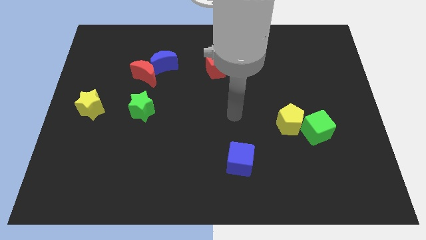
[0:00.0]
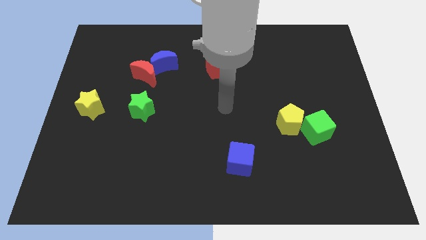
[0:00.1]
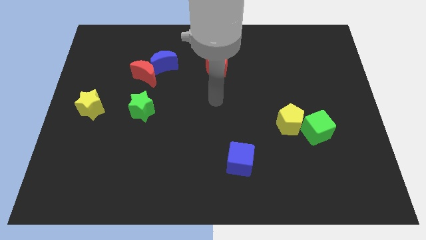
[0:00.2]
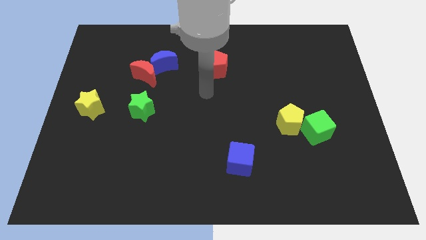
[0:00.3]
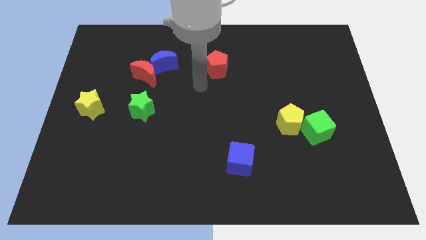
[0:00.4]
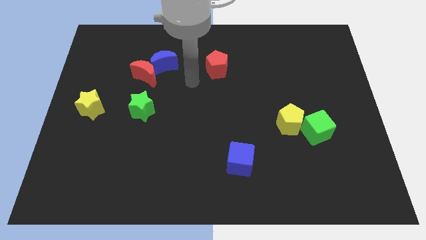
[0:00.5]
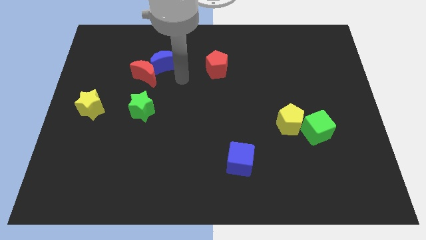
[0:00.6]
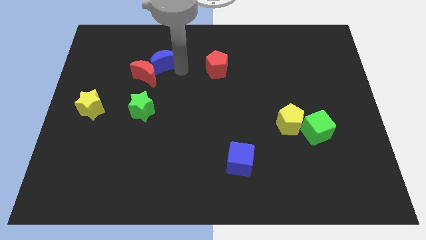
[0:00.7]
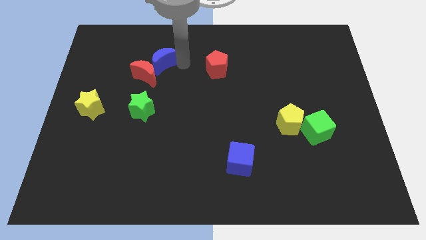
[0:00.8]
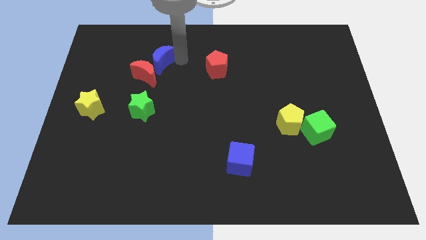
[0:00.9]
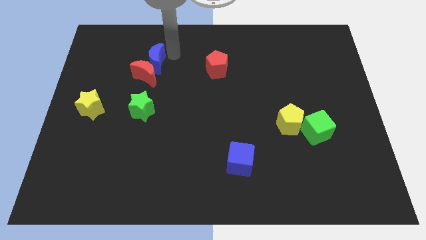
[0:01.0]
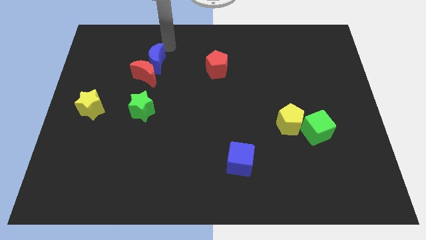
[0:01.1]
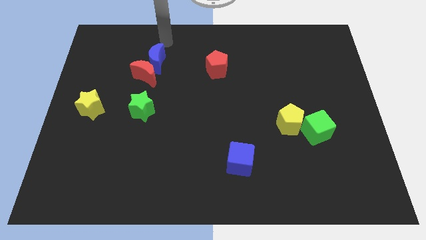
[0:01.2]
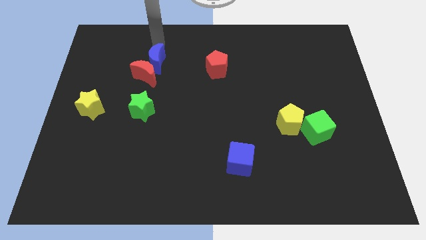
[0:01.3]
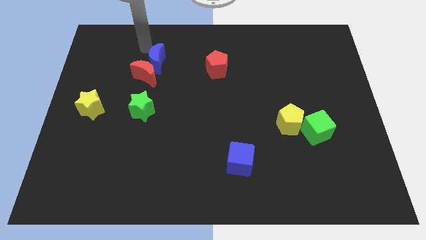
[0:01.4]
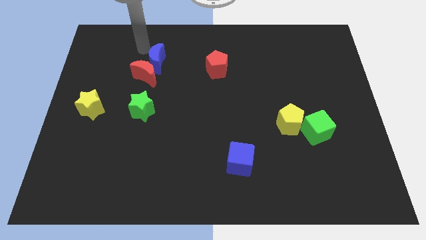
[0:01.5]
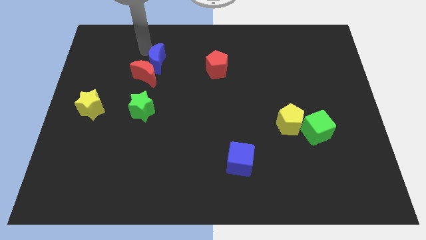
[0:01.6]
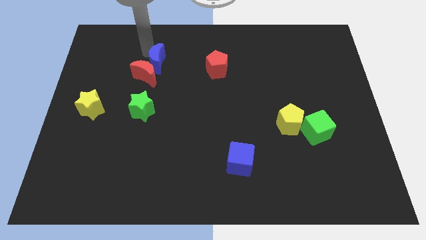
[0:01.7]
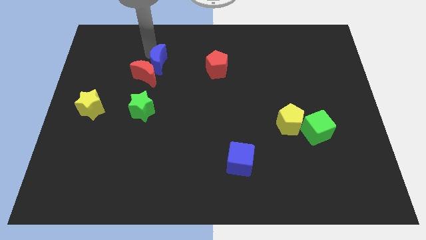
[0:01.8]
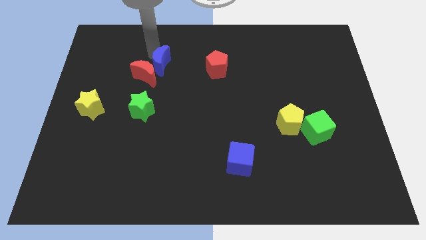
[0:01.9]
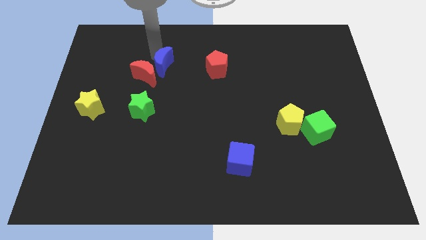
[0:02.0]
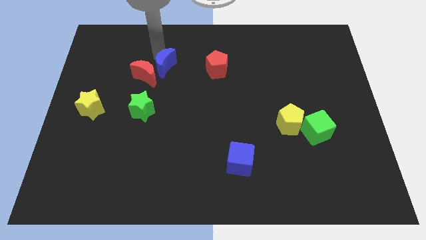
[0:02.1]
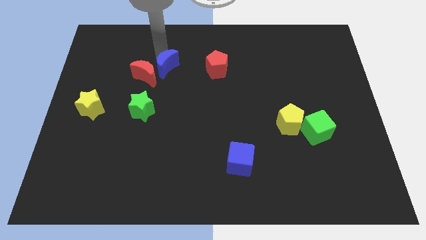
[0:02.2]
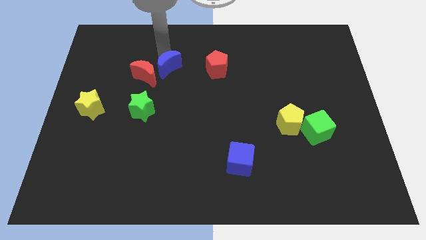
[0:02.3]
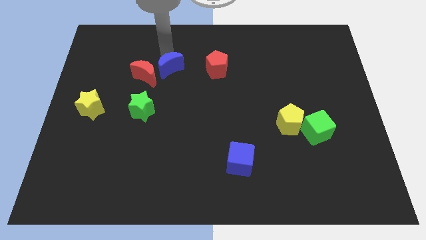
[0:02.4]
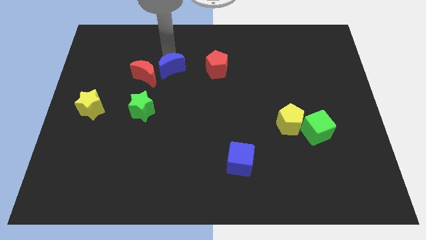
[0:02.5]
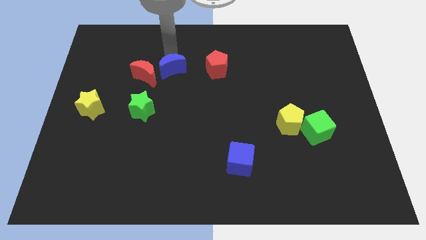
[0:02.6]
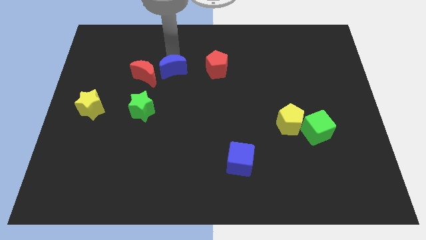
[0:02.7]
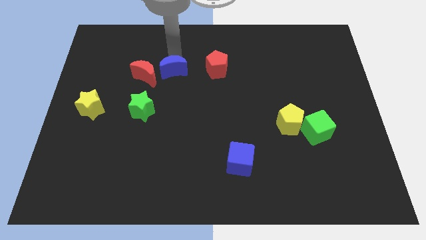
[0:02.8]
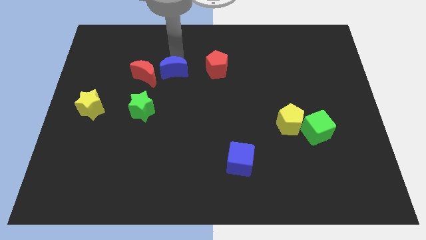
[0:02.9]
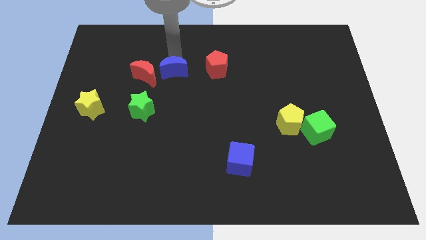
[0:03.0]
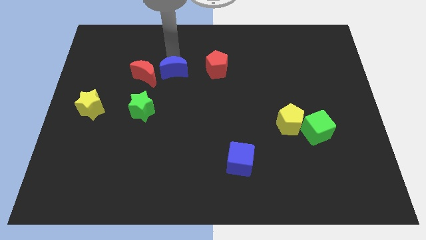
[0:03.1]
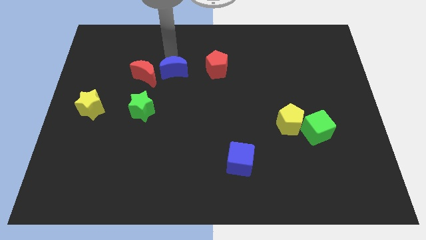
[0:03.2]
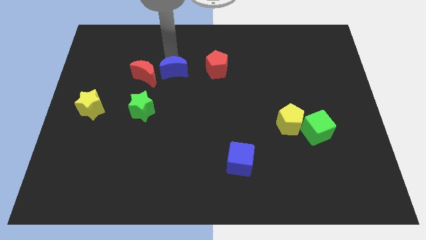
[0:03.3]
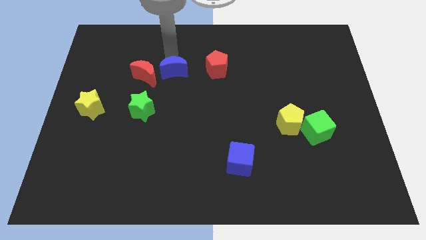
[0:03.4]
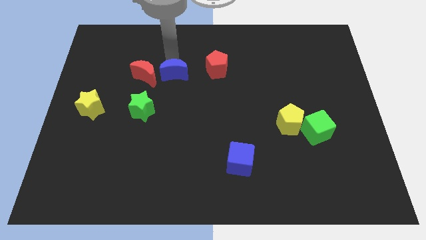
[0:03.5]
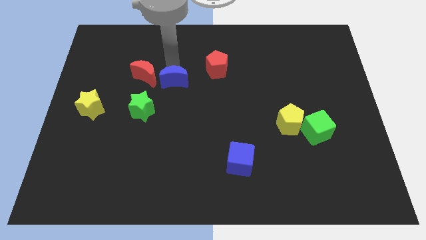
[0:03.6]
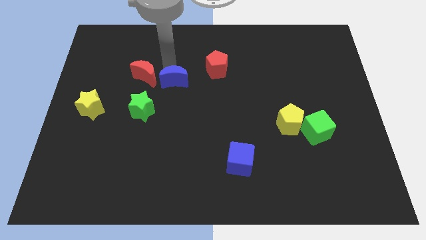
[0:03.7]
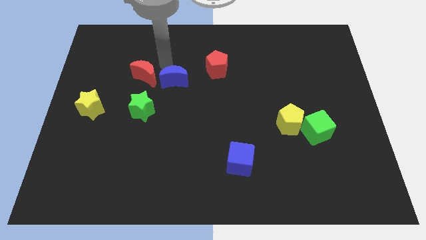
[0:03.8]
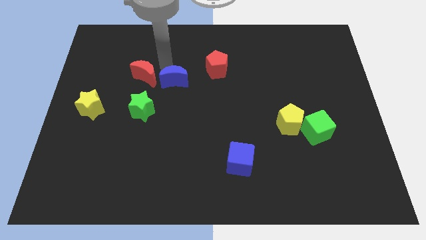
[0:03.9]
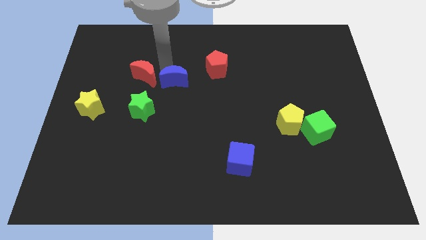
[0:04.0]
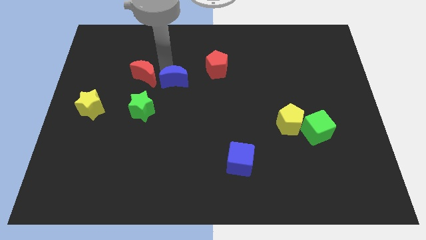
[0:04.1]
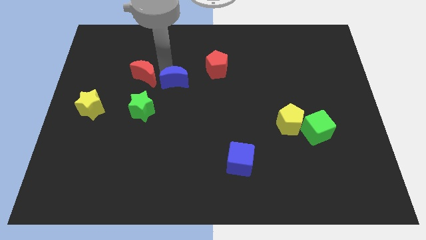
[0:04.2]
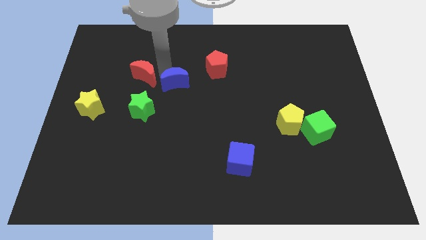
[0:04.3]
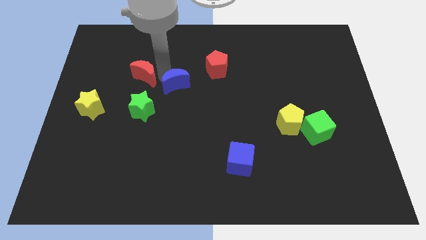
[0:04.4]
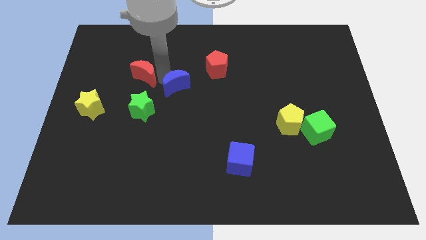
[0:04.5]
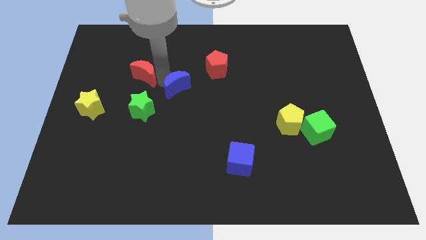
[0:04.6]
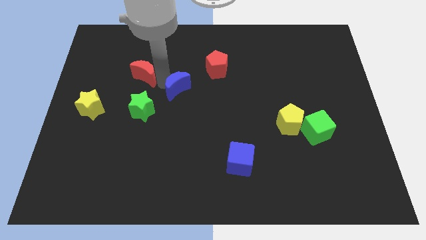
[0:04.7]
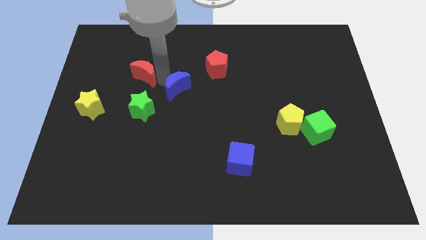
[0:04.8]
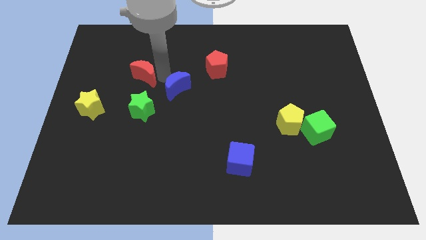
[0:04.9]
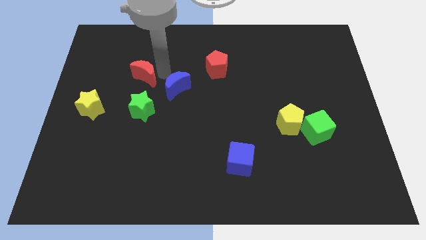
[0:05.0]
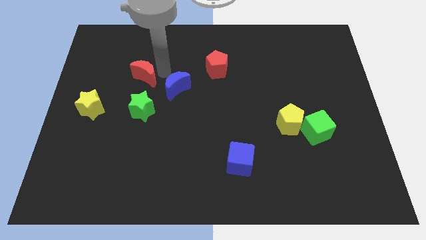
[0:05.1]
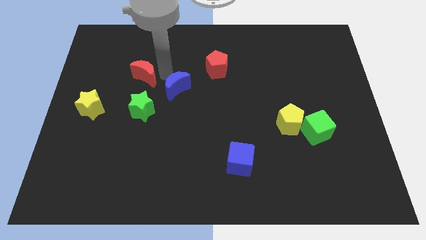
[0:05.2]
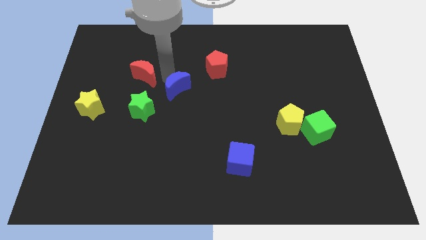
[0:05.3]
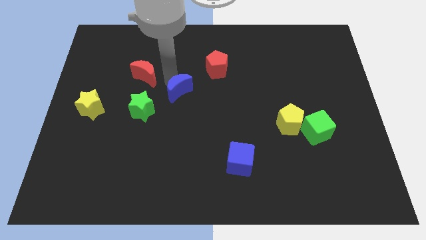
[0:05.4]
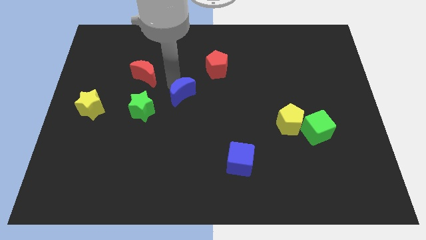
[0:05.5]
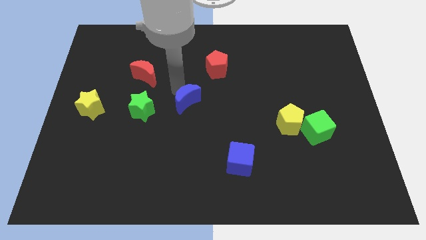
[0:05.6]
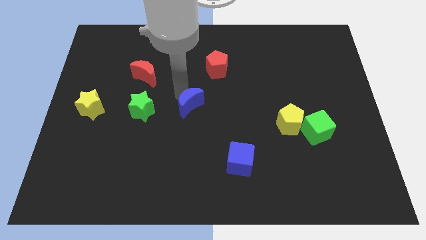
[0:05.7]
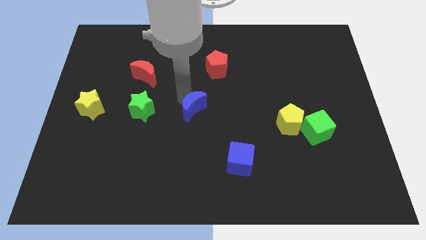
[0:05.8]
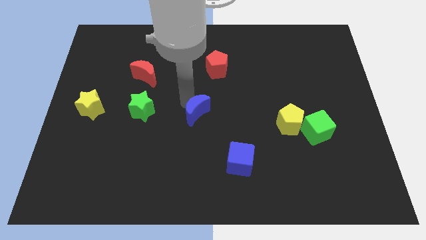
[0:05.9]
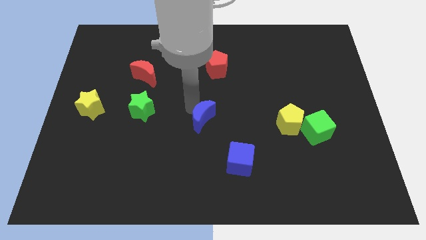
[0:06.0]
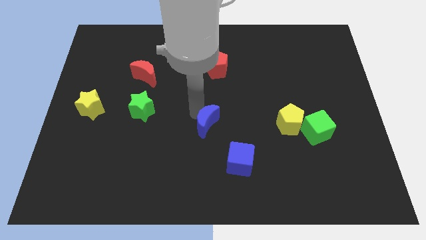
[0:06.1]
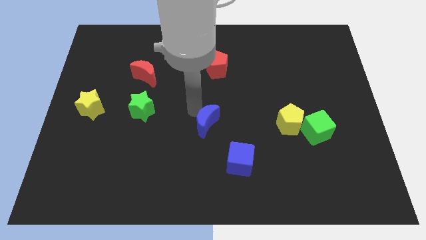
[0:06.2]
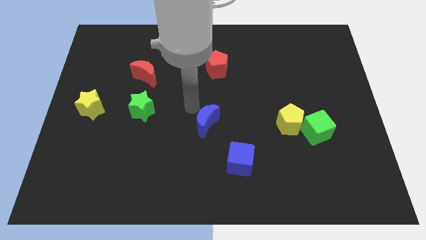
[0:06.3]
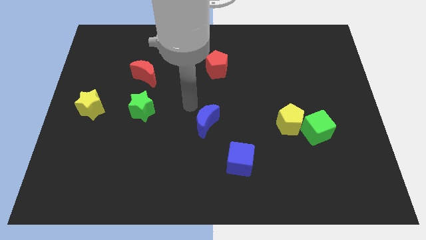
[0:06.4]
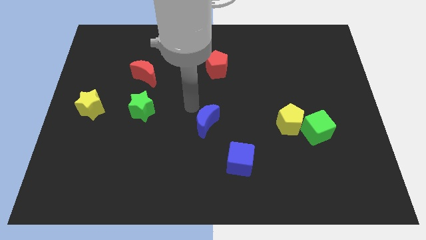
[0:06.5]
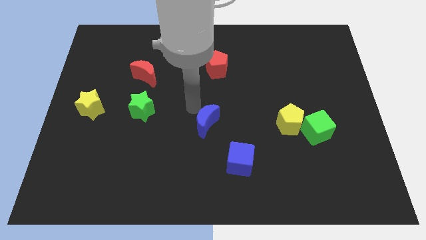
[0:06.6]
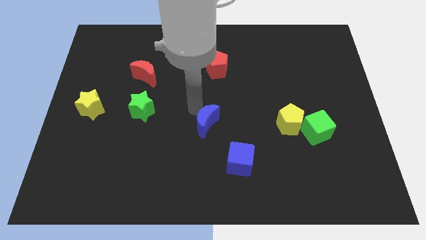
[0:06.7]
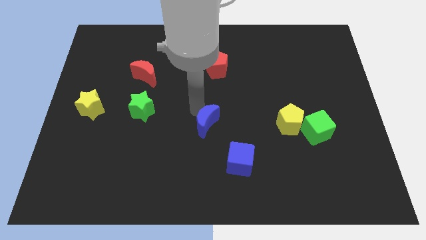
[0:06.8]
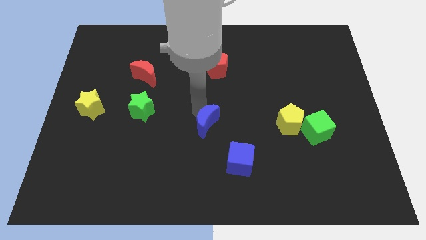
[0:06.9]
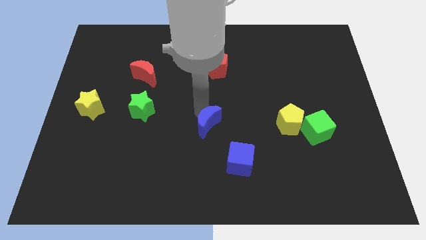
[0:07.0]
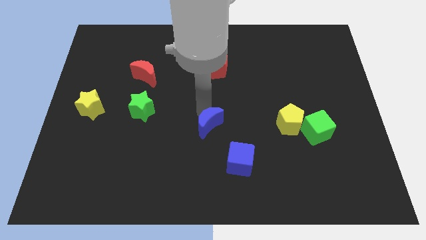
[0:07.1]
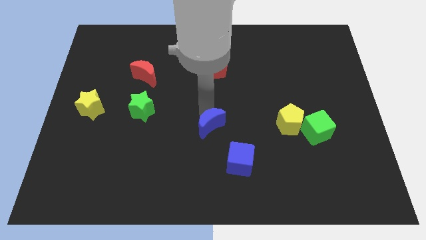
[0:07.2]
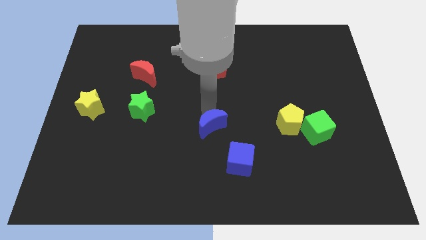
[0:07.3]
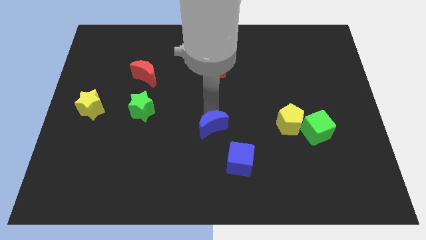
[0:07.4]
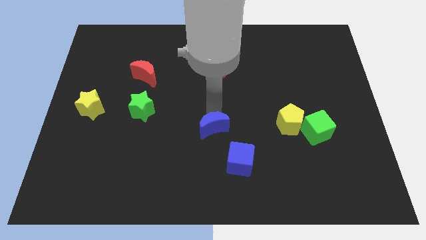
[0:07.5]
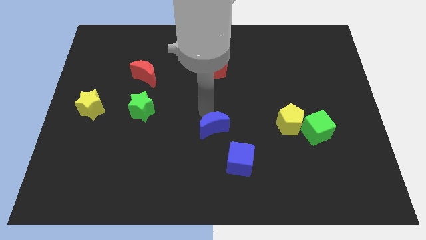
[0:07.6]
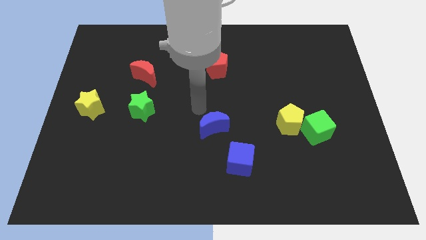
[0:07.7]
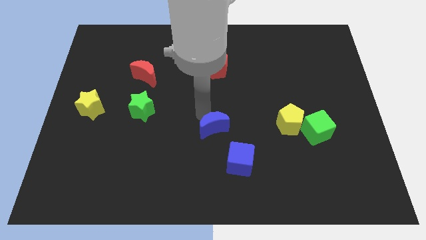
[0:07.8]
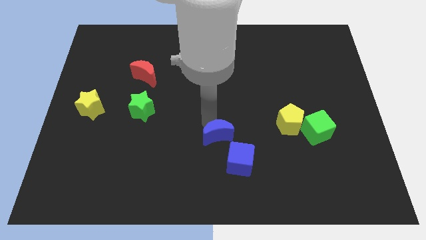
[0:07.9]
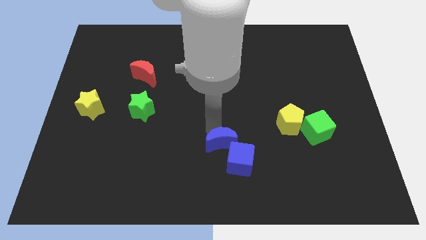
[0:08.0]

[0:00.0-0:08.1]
put the blue moon towards the blue cube
